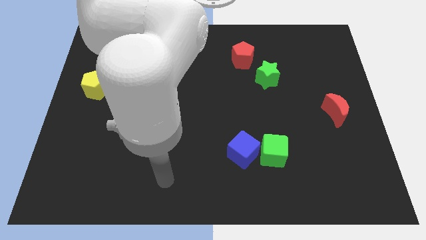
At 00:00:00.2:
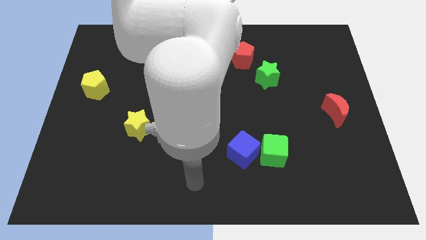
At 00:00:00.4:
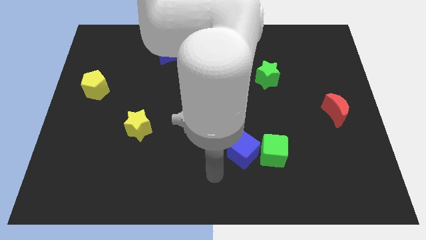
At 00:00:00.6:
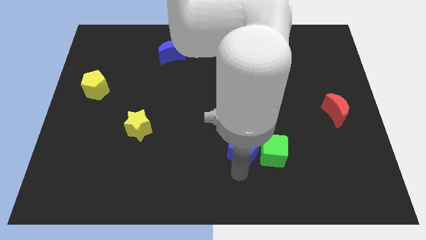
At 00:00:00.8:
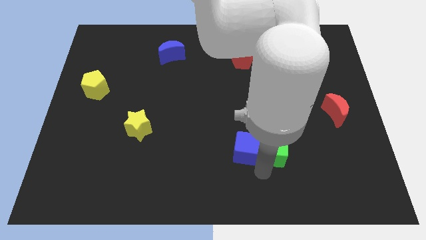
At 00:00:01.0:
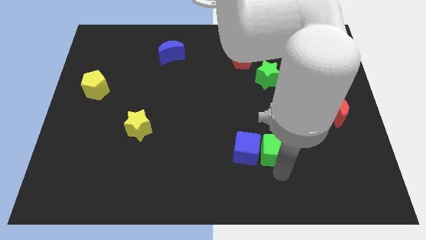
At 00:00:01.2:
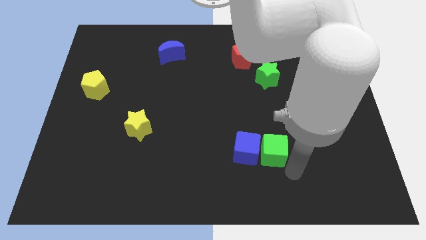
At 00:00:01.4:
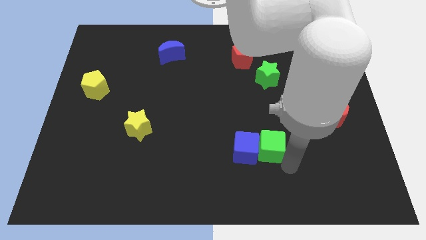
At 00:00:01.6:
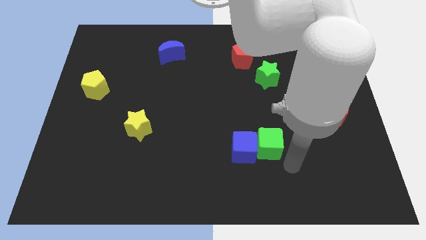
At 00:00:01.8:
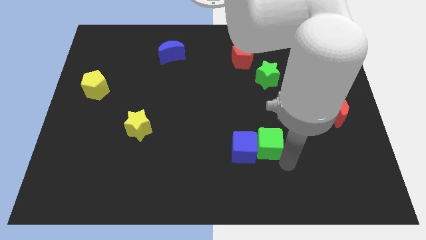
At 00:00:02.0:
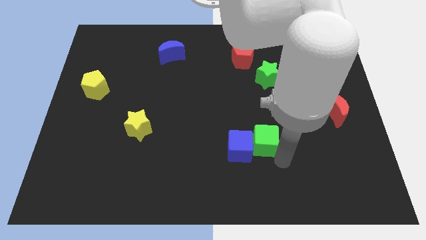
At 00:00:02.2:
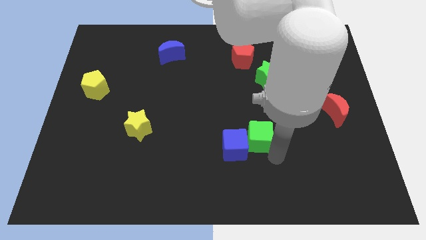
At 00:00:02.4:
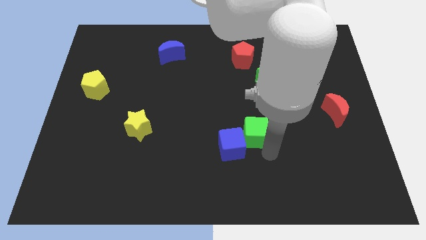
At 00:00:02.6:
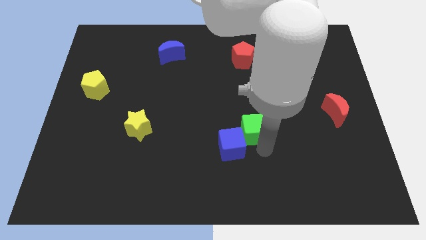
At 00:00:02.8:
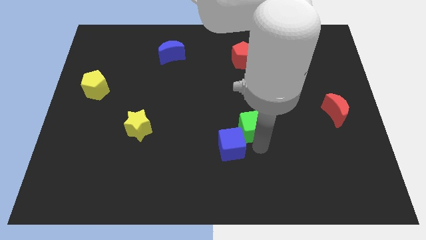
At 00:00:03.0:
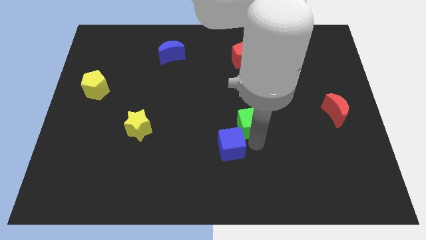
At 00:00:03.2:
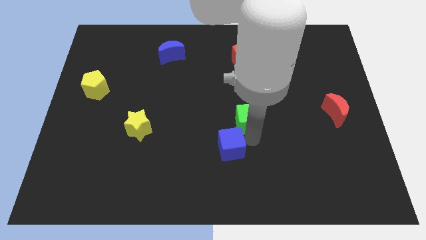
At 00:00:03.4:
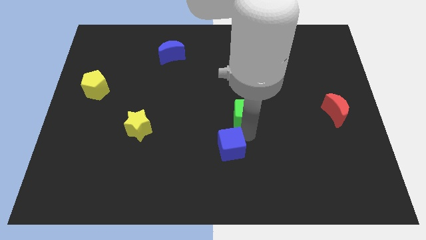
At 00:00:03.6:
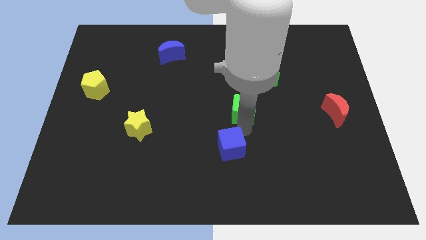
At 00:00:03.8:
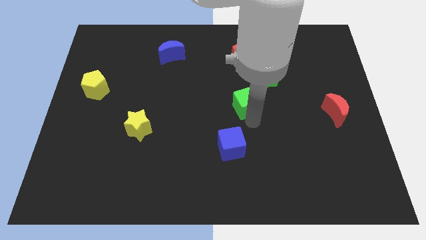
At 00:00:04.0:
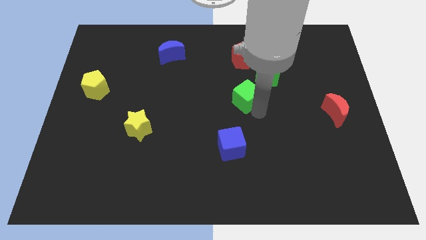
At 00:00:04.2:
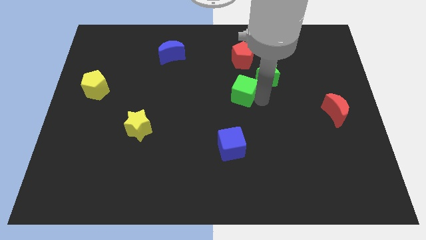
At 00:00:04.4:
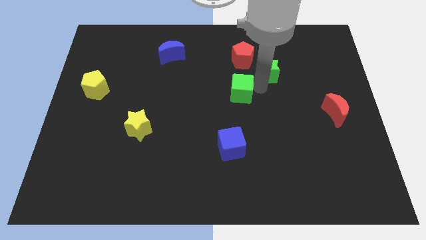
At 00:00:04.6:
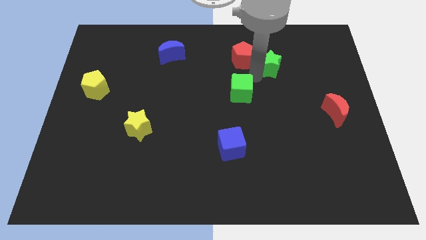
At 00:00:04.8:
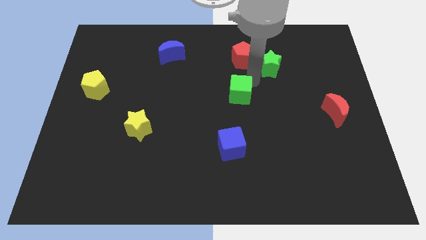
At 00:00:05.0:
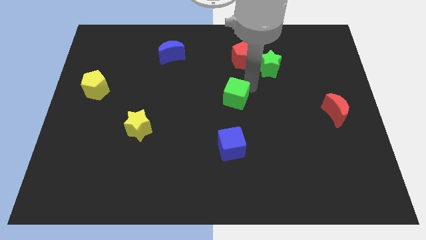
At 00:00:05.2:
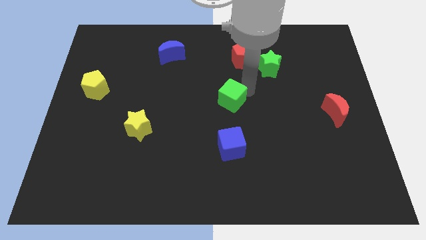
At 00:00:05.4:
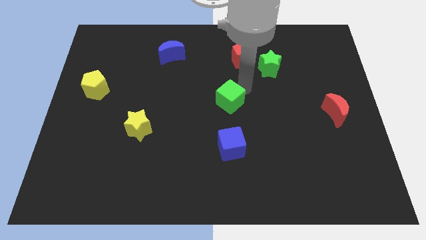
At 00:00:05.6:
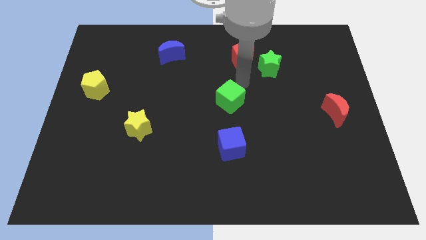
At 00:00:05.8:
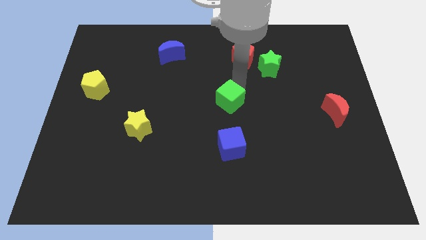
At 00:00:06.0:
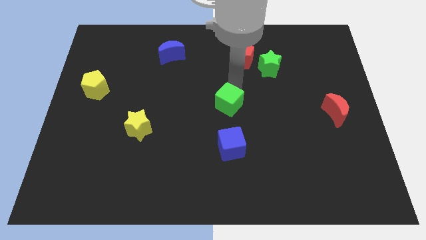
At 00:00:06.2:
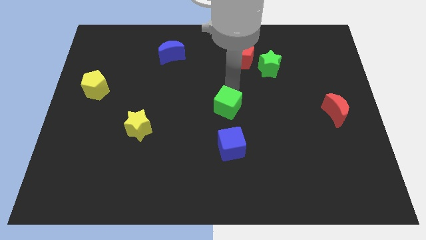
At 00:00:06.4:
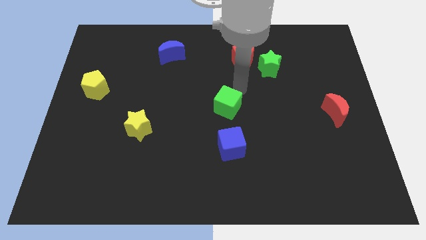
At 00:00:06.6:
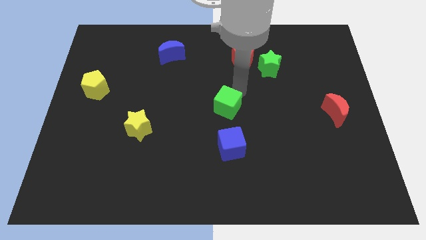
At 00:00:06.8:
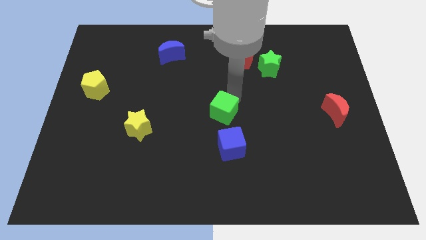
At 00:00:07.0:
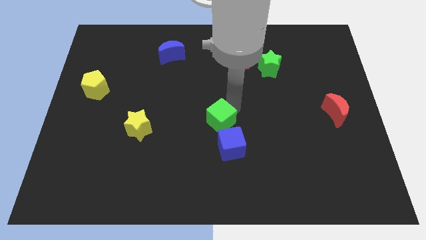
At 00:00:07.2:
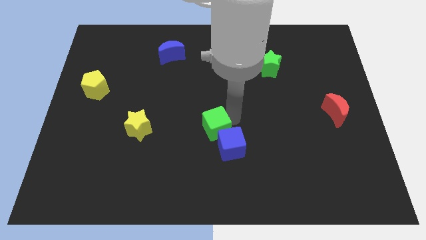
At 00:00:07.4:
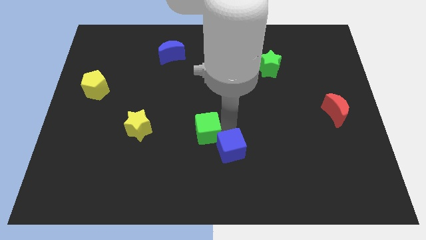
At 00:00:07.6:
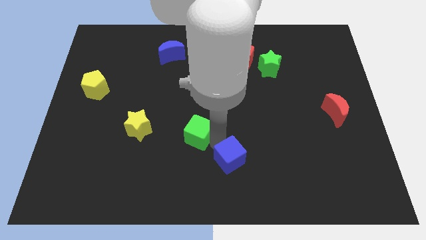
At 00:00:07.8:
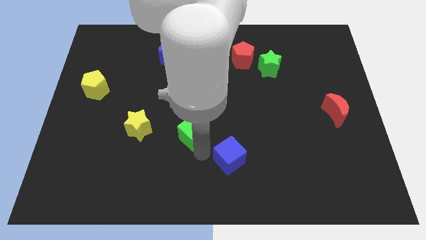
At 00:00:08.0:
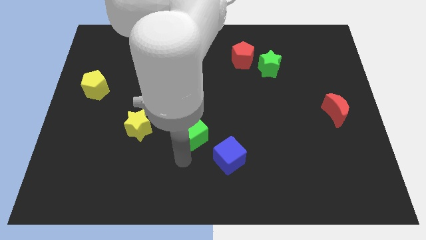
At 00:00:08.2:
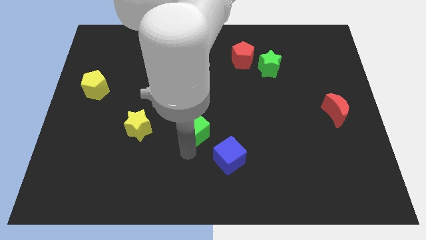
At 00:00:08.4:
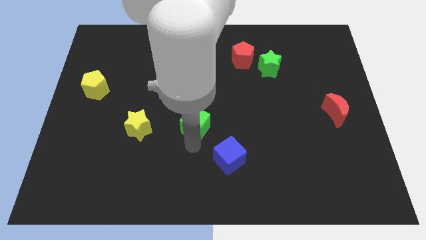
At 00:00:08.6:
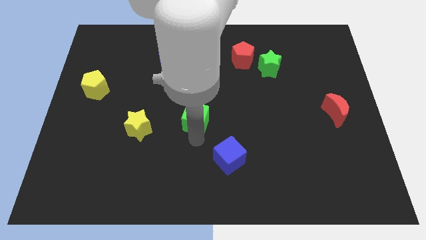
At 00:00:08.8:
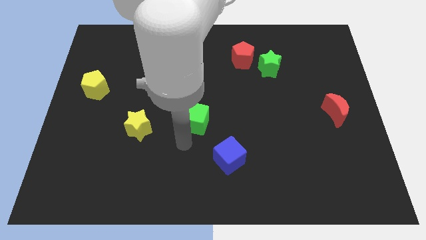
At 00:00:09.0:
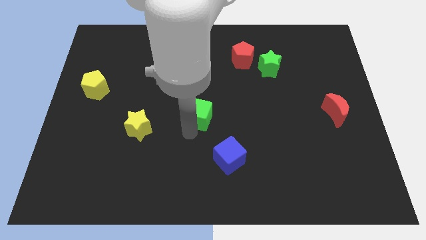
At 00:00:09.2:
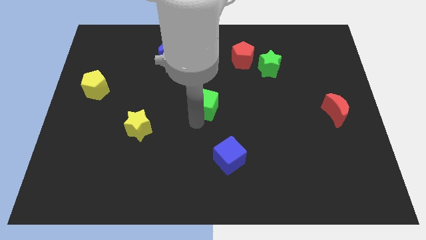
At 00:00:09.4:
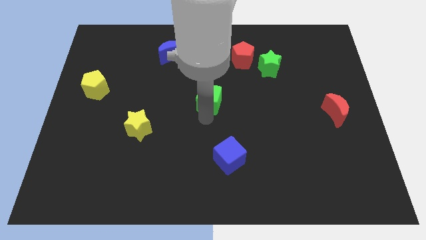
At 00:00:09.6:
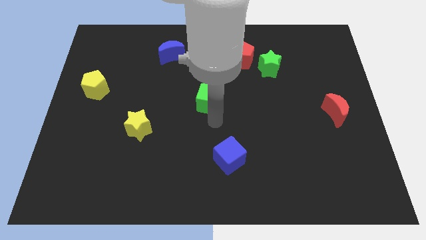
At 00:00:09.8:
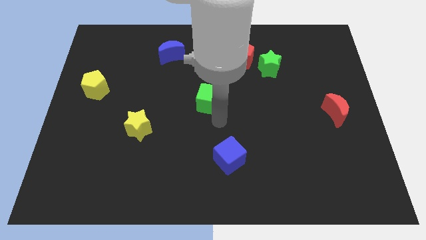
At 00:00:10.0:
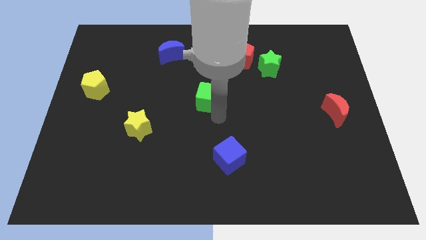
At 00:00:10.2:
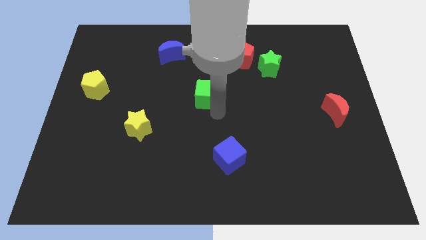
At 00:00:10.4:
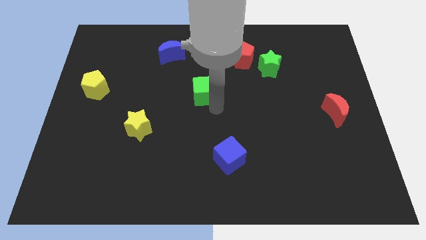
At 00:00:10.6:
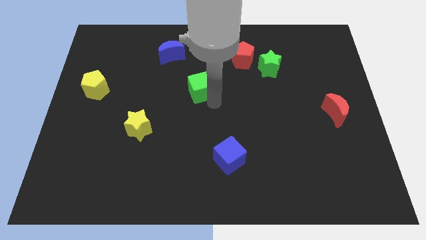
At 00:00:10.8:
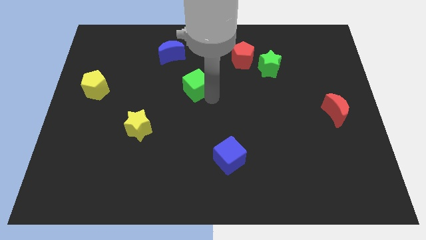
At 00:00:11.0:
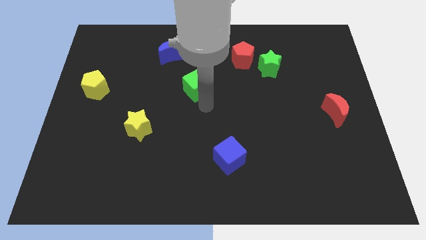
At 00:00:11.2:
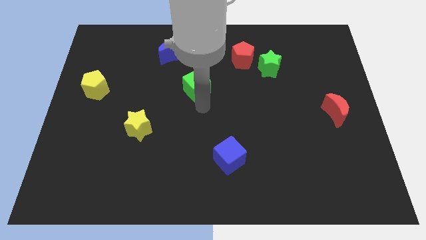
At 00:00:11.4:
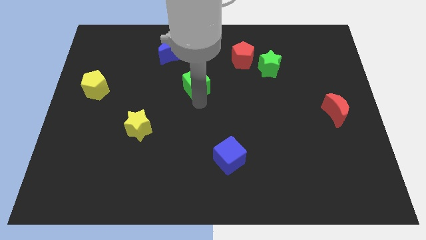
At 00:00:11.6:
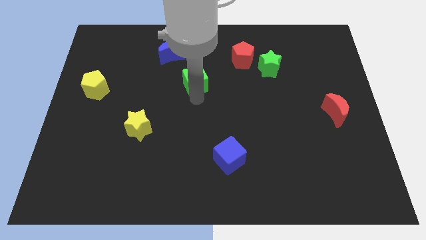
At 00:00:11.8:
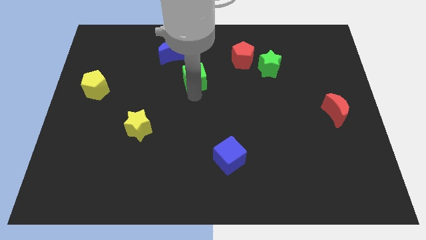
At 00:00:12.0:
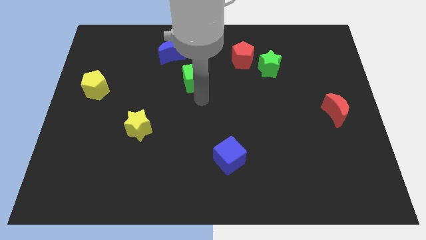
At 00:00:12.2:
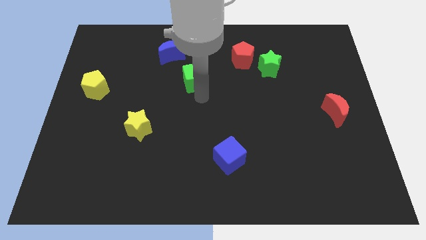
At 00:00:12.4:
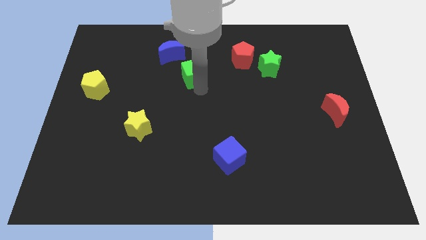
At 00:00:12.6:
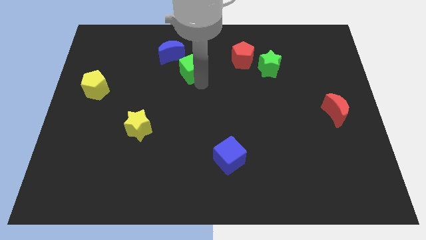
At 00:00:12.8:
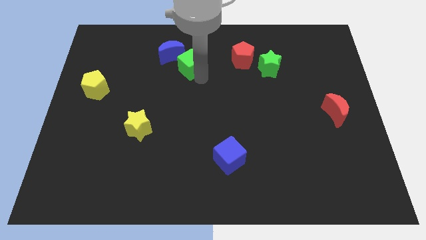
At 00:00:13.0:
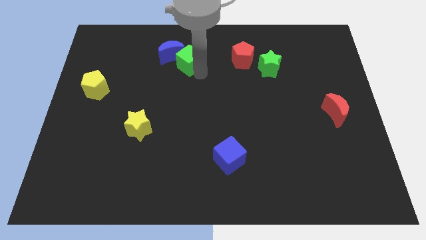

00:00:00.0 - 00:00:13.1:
push the green cube towards the blue moon
